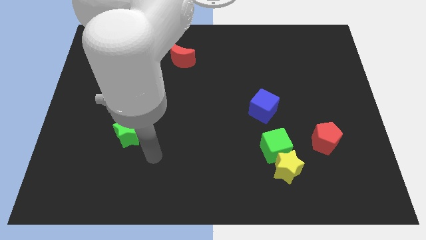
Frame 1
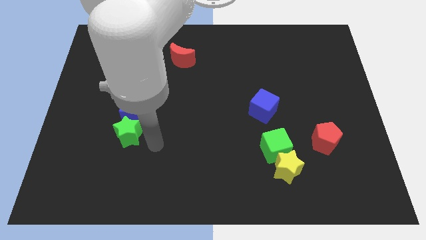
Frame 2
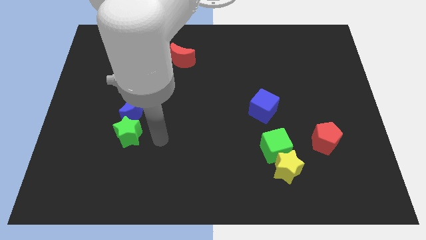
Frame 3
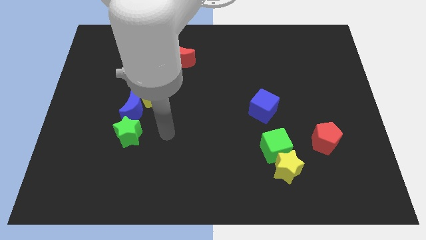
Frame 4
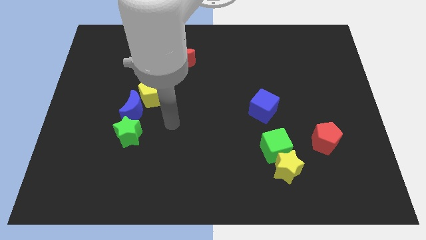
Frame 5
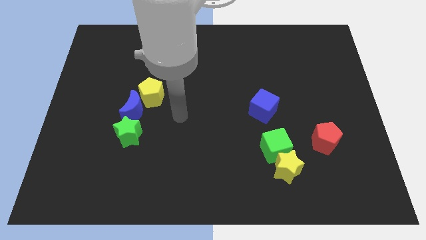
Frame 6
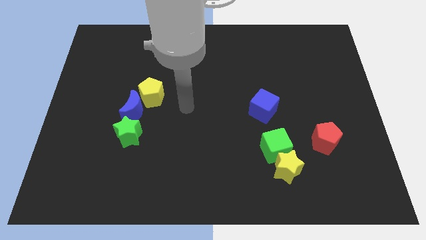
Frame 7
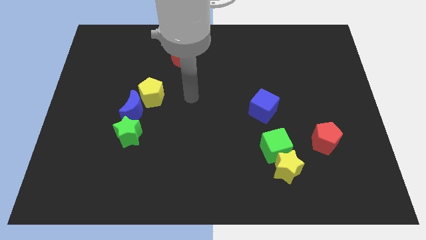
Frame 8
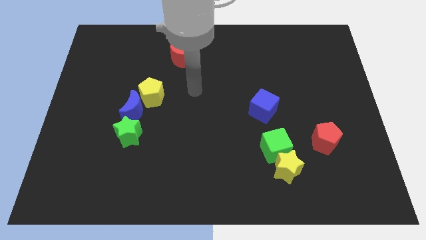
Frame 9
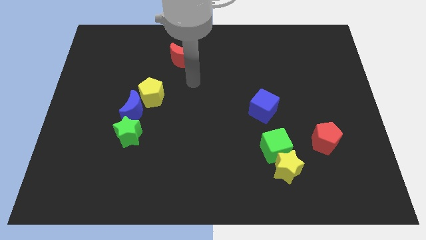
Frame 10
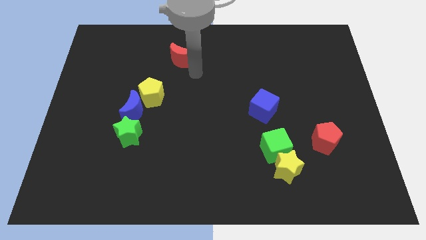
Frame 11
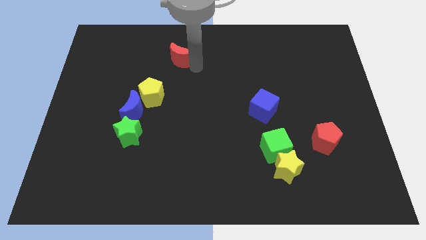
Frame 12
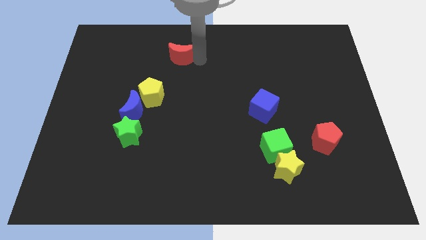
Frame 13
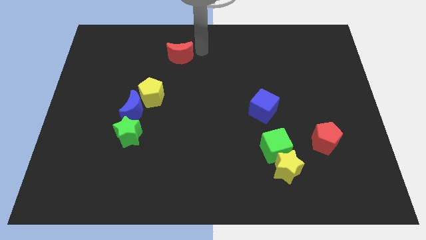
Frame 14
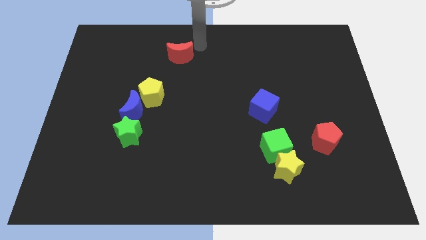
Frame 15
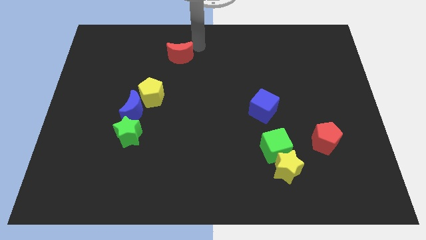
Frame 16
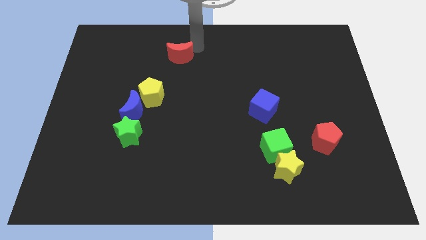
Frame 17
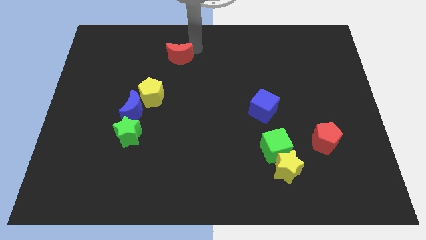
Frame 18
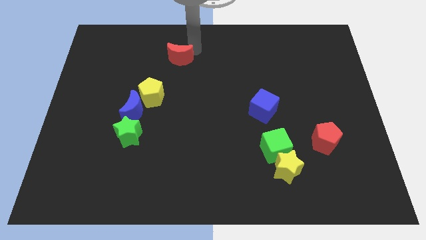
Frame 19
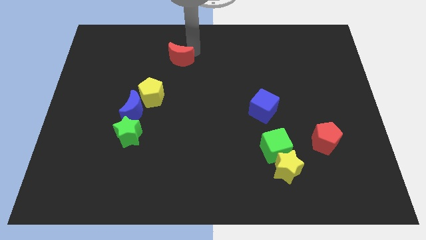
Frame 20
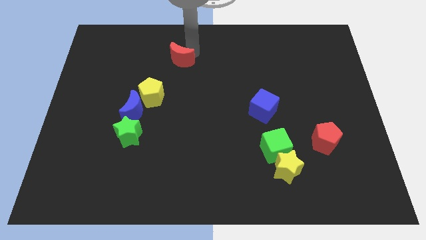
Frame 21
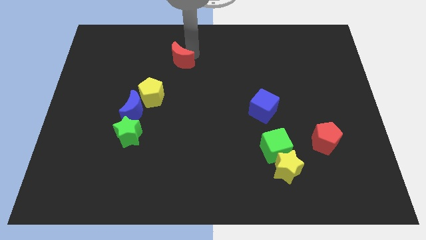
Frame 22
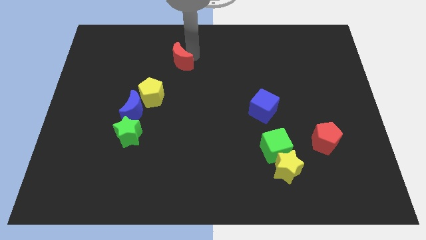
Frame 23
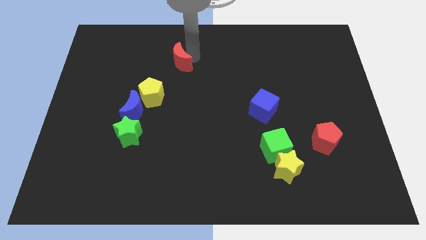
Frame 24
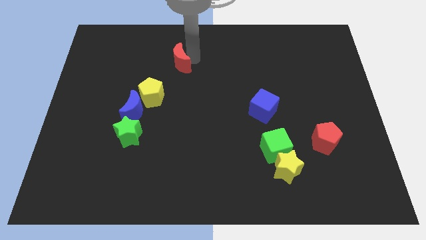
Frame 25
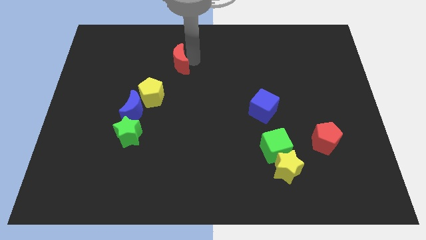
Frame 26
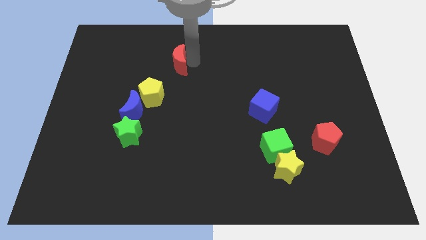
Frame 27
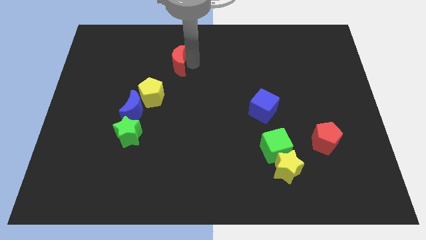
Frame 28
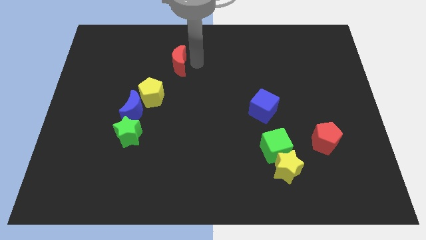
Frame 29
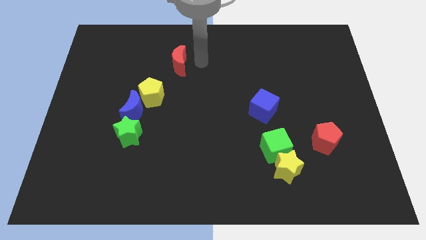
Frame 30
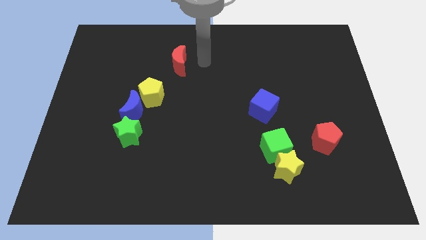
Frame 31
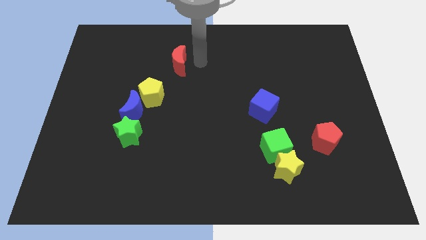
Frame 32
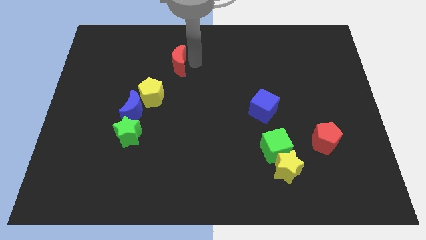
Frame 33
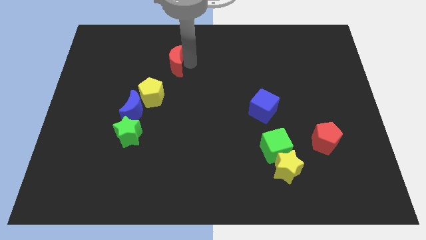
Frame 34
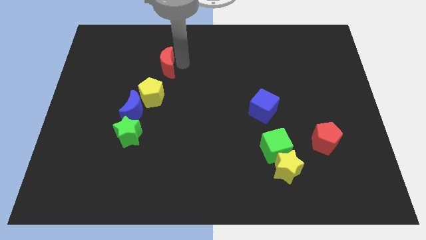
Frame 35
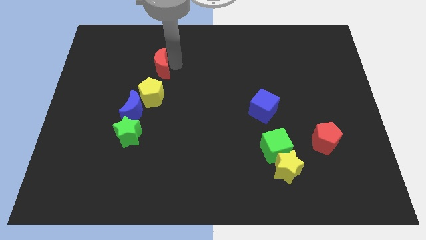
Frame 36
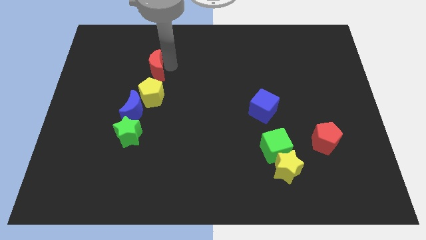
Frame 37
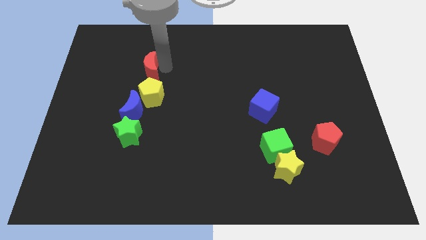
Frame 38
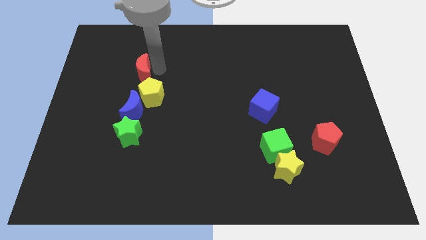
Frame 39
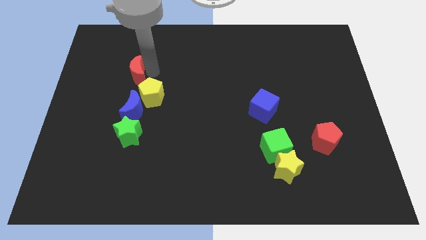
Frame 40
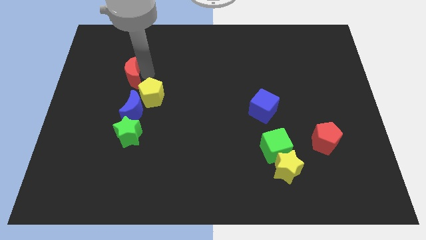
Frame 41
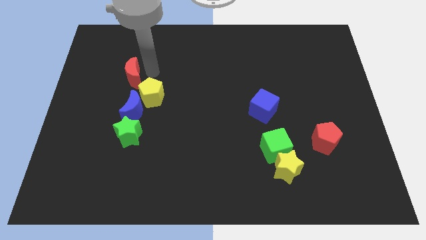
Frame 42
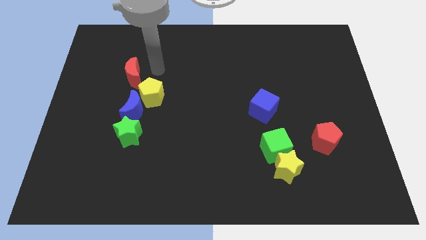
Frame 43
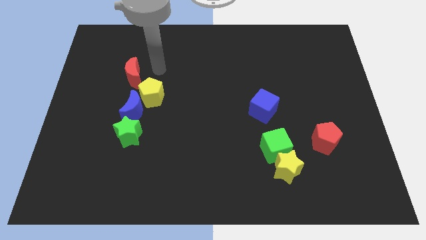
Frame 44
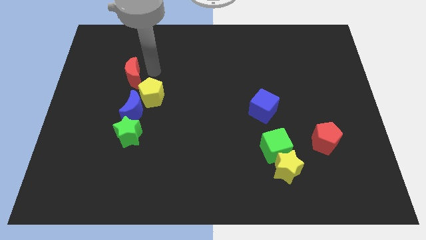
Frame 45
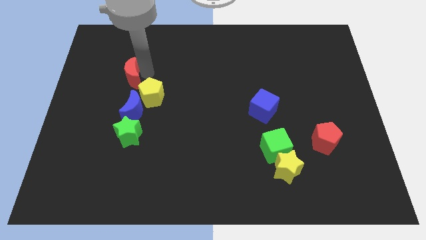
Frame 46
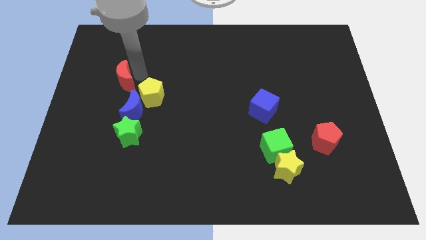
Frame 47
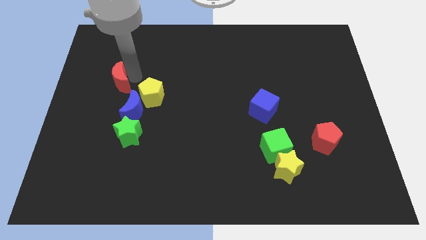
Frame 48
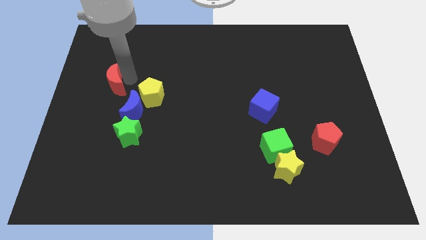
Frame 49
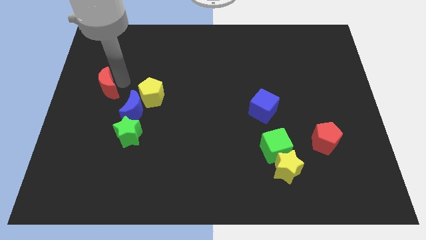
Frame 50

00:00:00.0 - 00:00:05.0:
push the red moon to the left side of the board

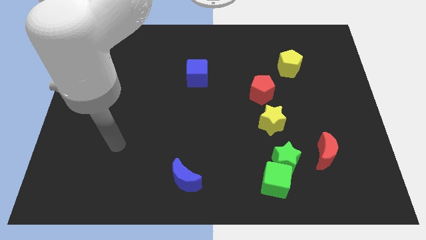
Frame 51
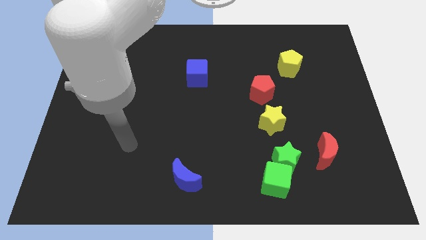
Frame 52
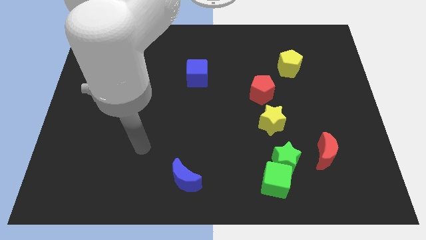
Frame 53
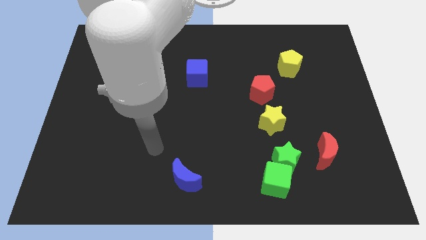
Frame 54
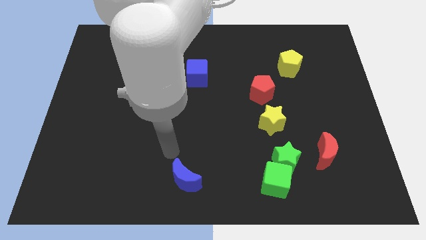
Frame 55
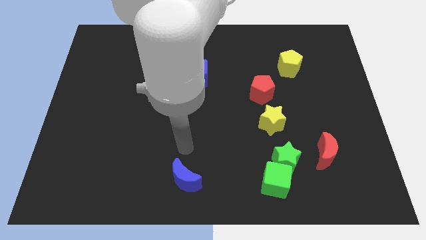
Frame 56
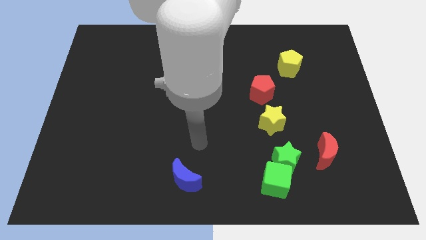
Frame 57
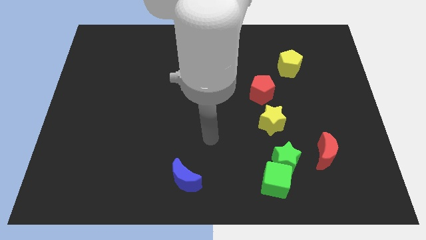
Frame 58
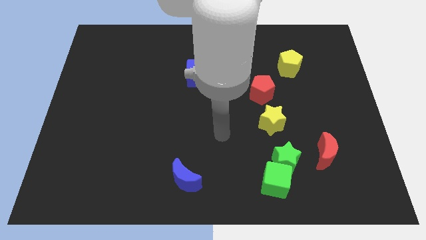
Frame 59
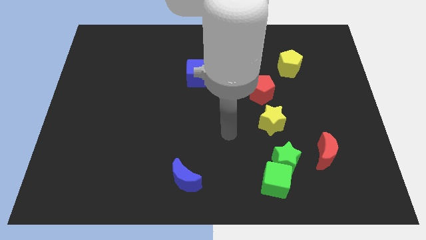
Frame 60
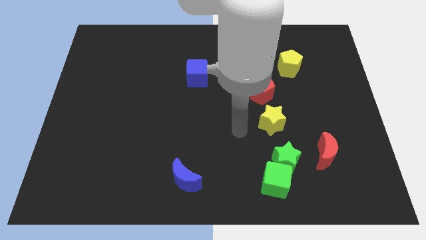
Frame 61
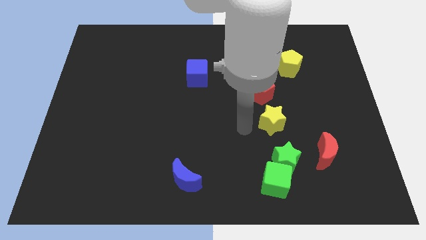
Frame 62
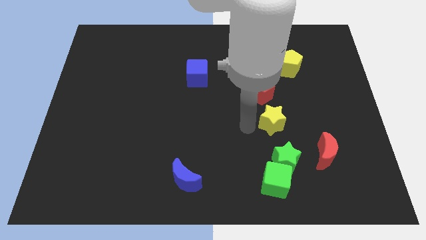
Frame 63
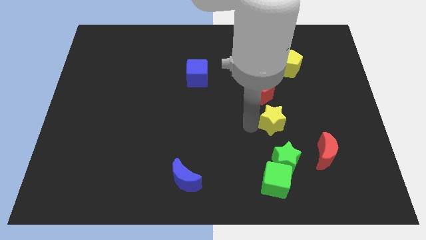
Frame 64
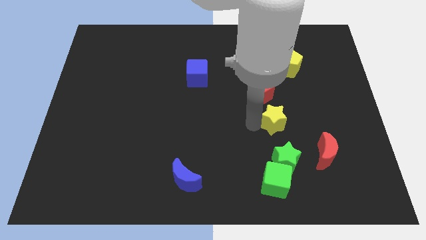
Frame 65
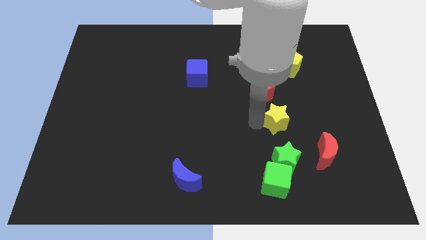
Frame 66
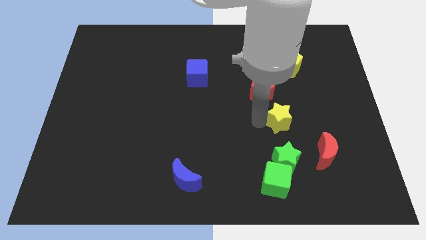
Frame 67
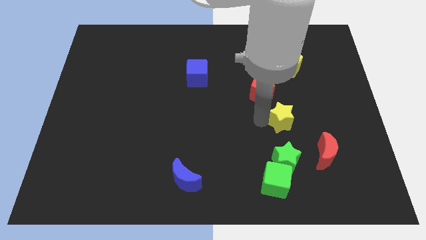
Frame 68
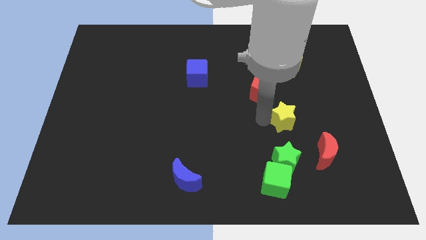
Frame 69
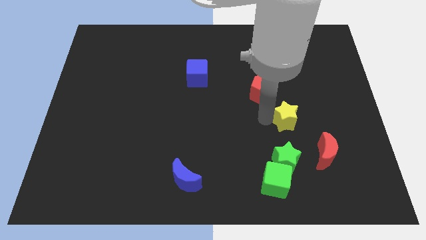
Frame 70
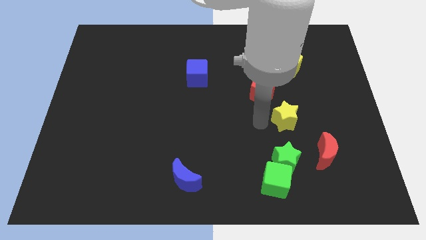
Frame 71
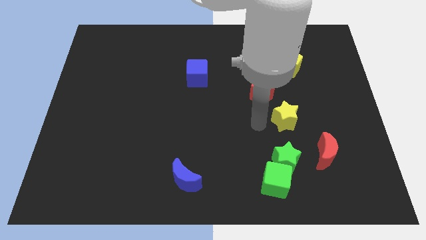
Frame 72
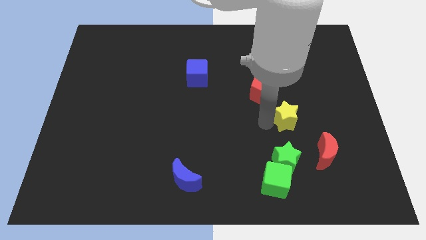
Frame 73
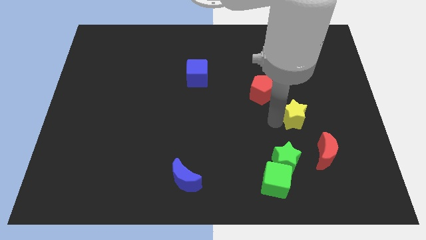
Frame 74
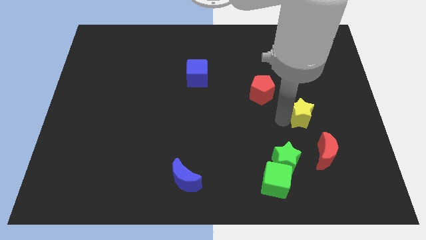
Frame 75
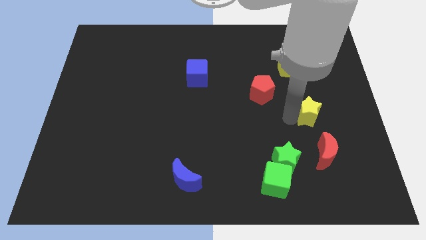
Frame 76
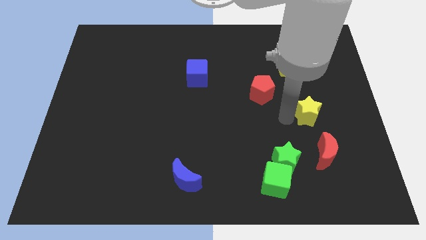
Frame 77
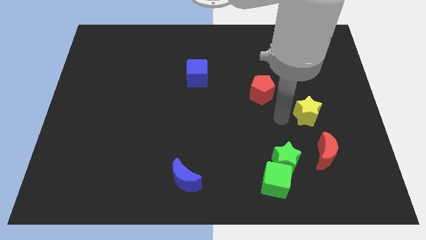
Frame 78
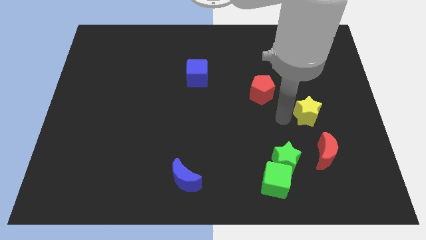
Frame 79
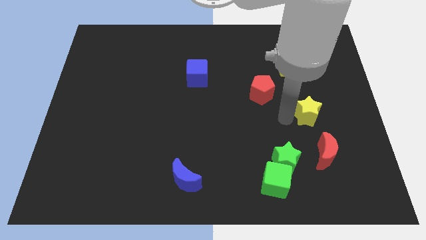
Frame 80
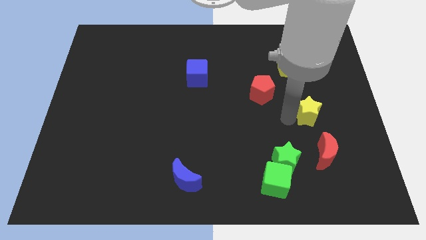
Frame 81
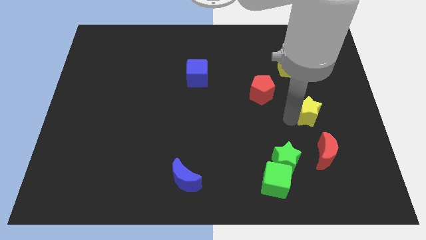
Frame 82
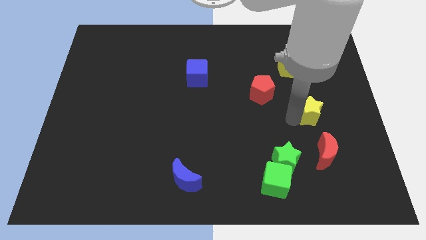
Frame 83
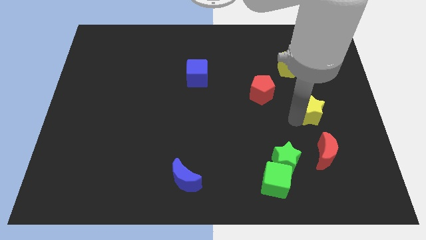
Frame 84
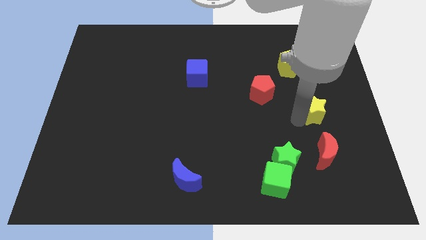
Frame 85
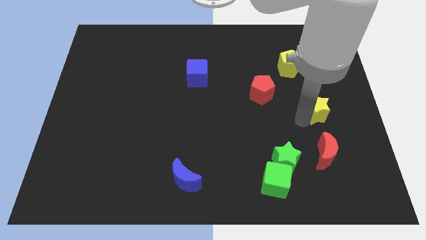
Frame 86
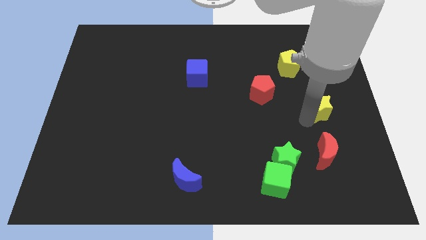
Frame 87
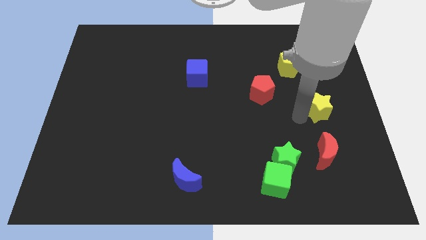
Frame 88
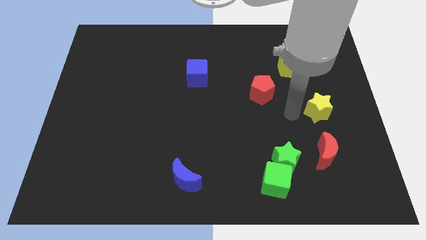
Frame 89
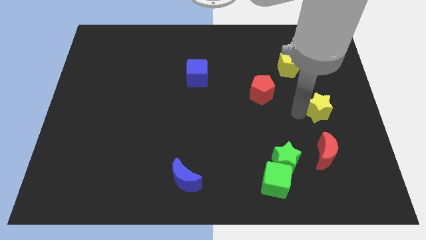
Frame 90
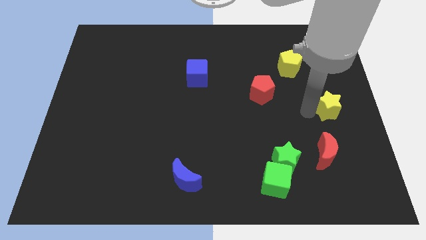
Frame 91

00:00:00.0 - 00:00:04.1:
move the yellow star to the right side of the board
